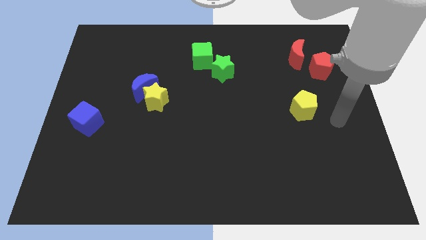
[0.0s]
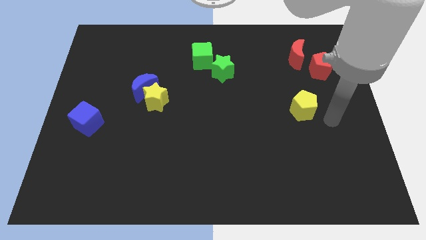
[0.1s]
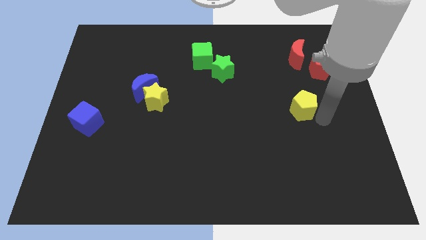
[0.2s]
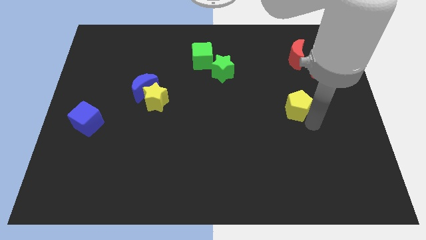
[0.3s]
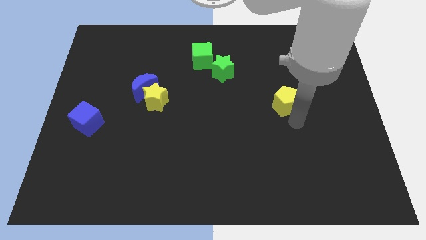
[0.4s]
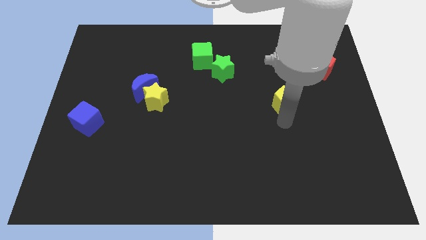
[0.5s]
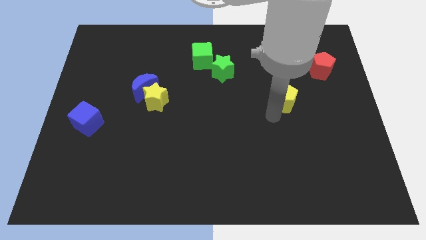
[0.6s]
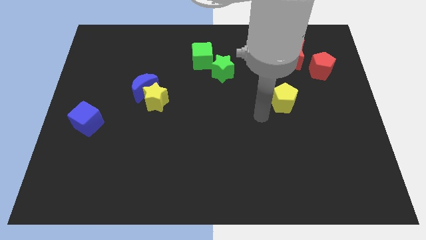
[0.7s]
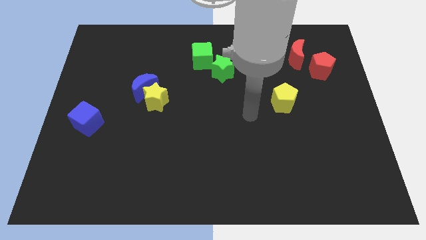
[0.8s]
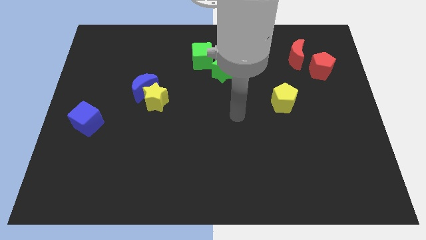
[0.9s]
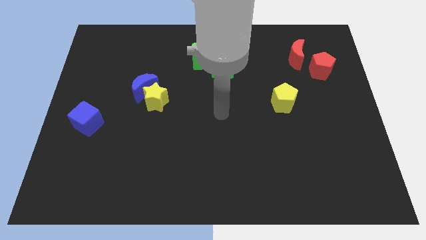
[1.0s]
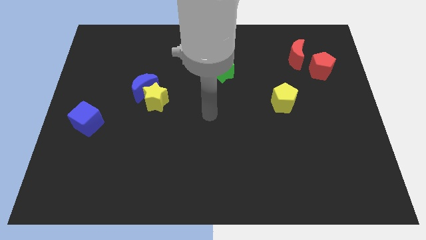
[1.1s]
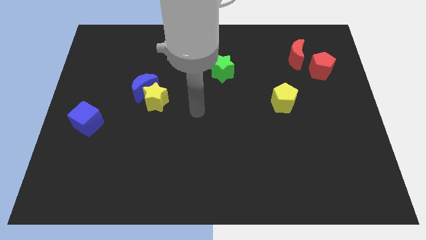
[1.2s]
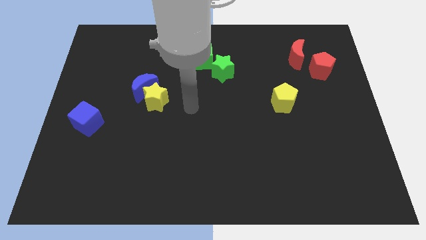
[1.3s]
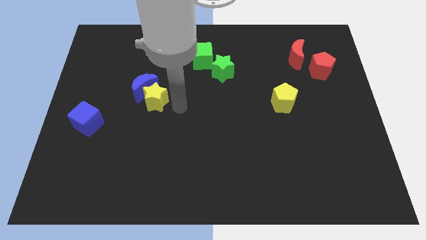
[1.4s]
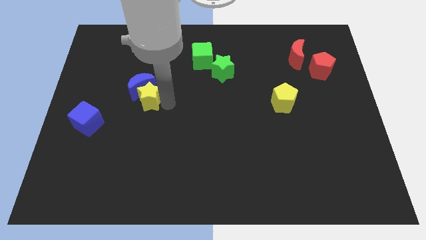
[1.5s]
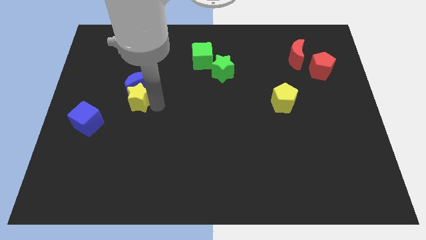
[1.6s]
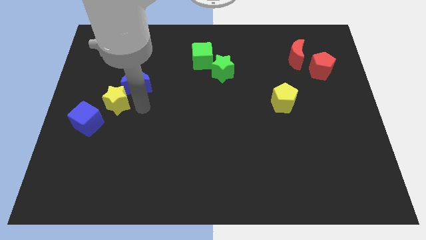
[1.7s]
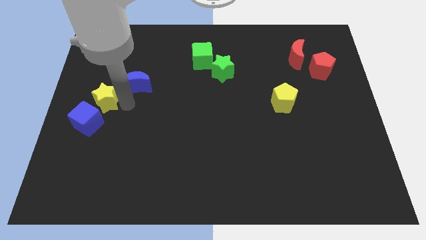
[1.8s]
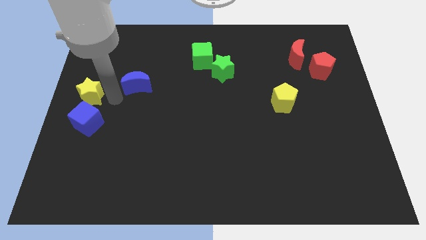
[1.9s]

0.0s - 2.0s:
move the blue moon away from the yellow star

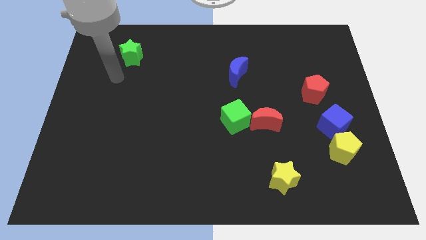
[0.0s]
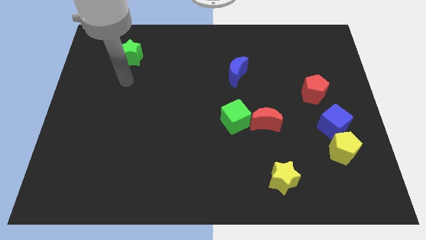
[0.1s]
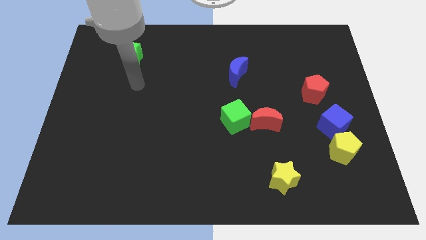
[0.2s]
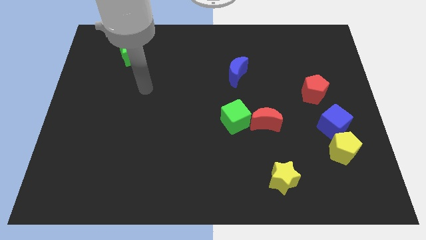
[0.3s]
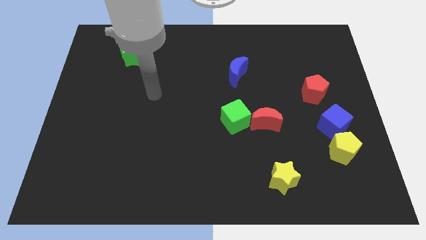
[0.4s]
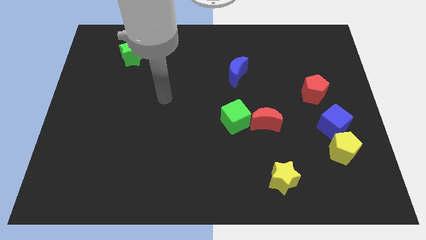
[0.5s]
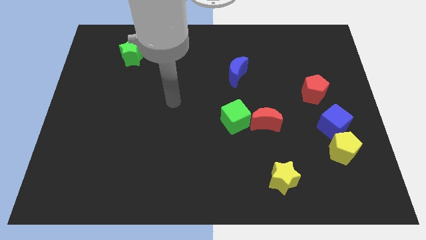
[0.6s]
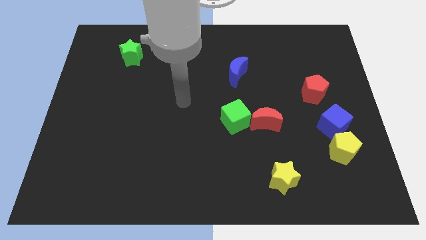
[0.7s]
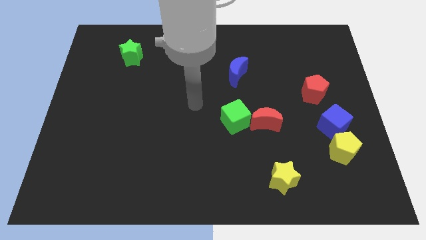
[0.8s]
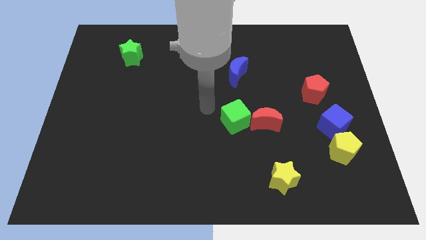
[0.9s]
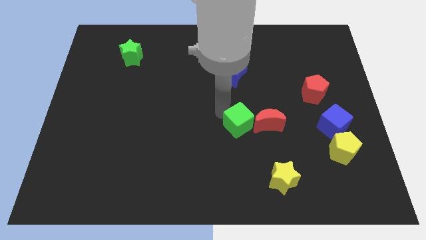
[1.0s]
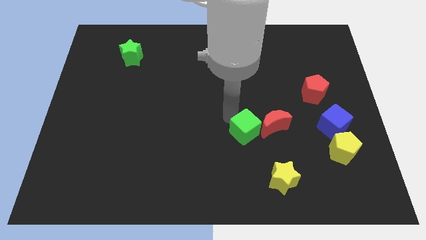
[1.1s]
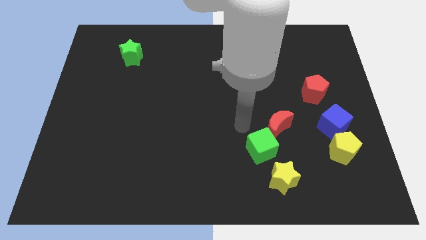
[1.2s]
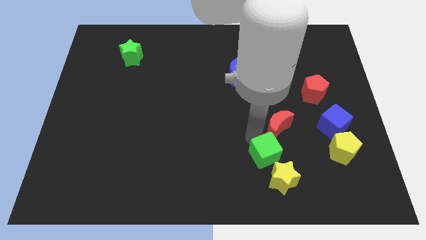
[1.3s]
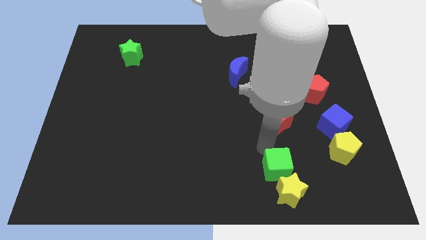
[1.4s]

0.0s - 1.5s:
pull the red moon apart from the green cube

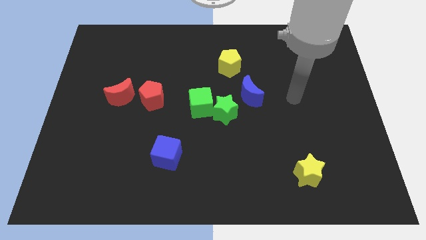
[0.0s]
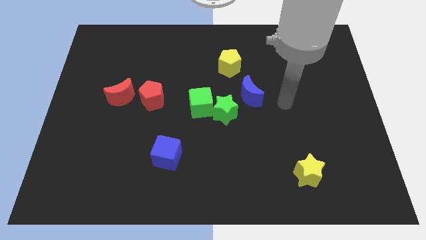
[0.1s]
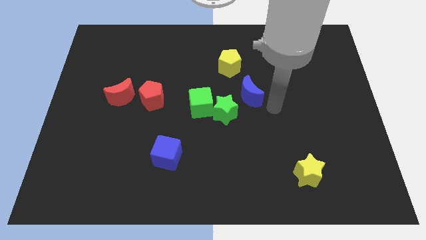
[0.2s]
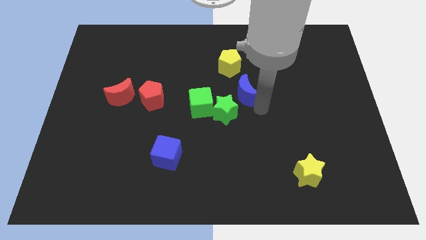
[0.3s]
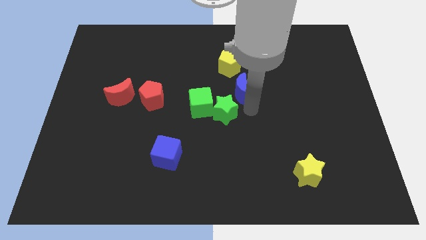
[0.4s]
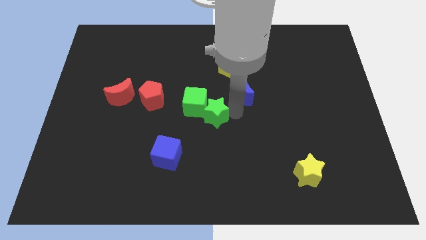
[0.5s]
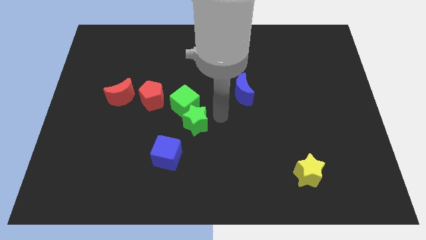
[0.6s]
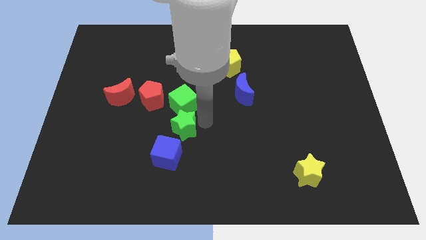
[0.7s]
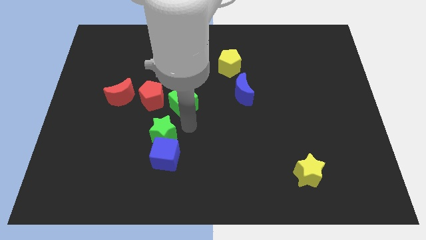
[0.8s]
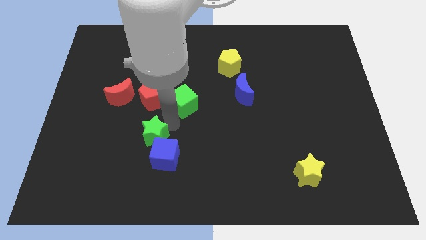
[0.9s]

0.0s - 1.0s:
separate the green cube from the green star

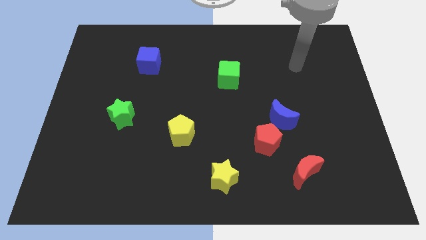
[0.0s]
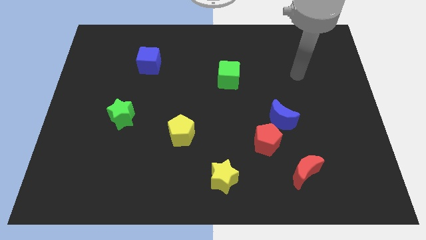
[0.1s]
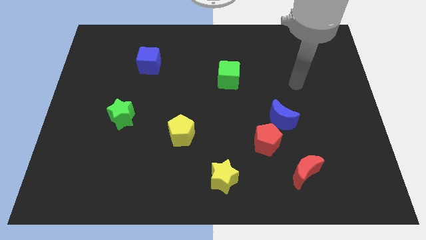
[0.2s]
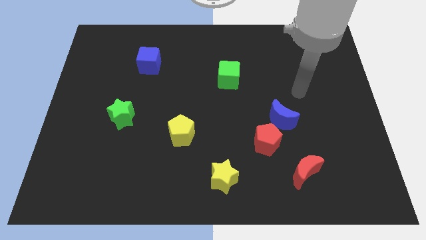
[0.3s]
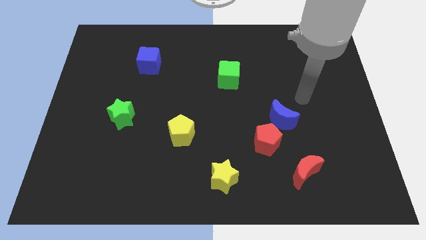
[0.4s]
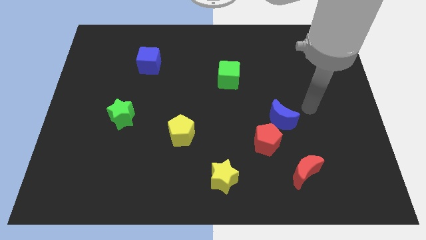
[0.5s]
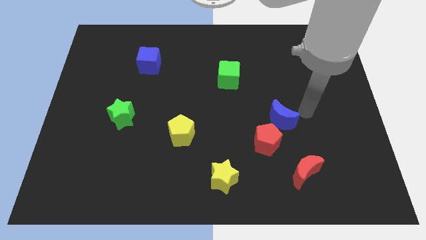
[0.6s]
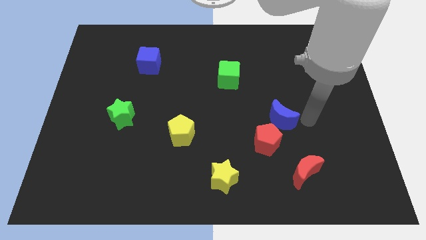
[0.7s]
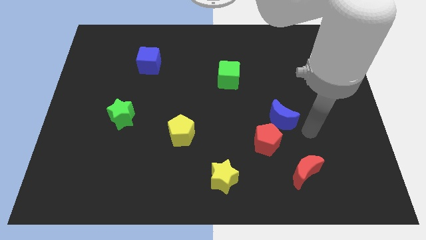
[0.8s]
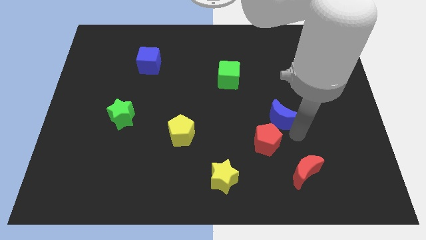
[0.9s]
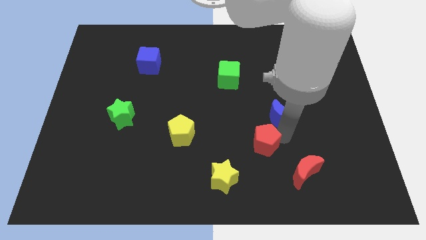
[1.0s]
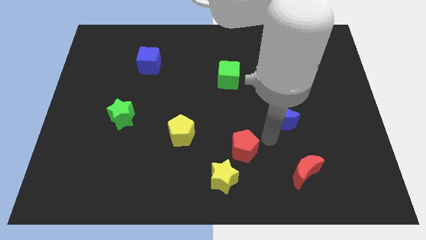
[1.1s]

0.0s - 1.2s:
separate the blue moon from the red pentagon

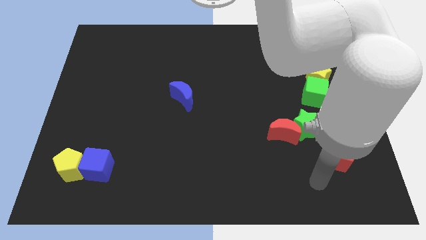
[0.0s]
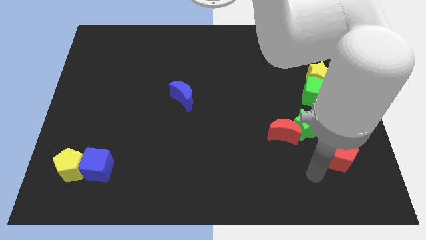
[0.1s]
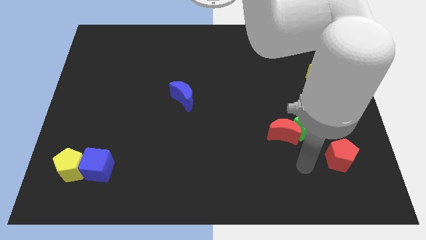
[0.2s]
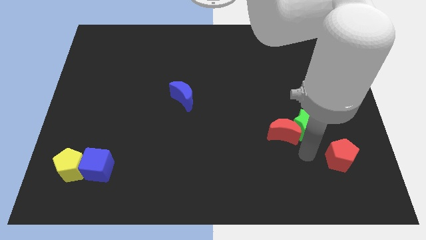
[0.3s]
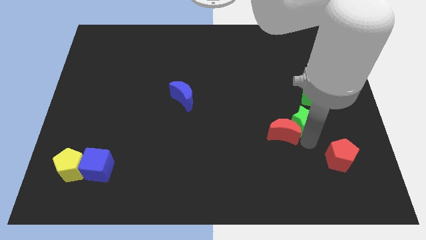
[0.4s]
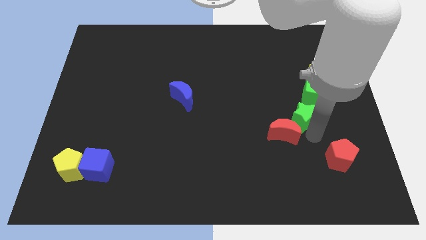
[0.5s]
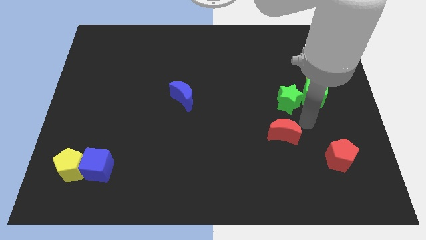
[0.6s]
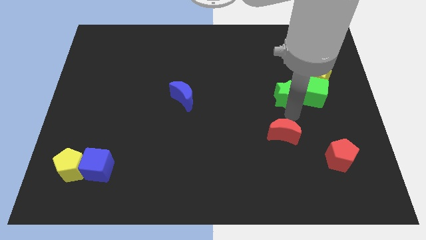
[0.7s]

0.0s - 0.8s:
separate the red moon from the green star

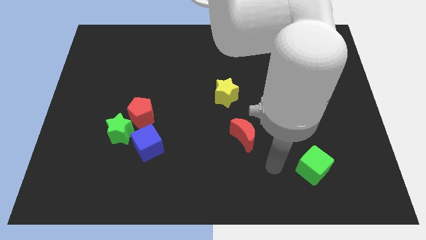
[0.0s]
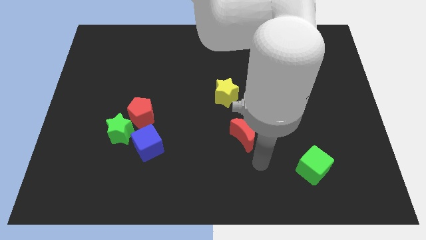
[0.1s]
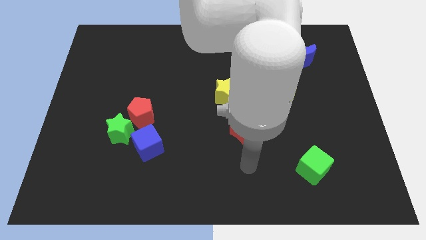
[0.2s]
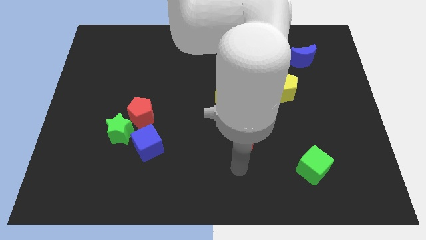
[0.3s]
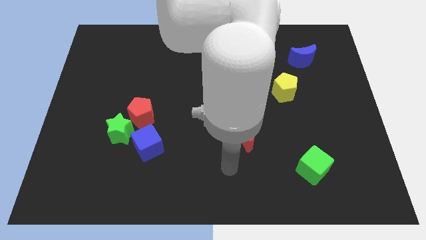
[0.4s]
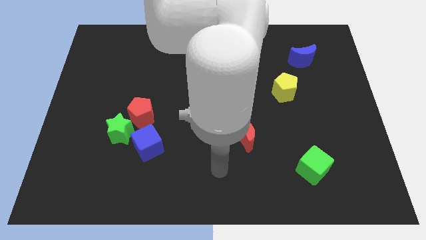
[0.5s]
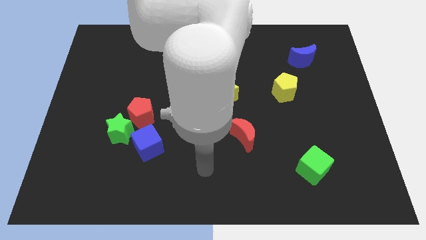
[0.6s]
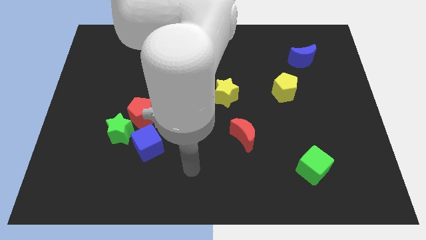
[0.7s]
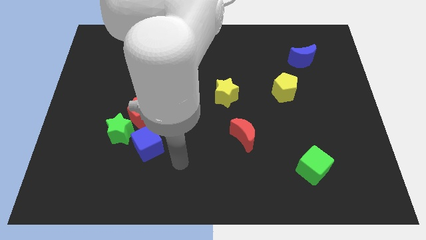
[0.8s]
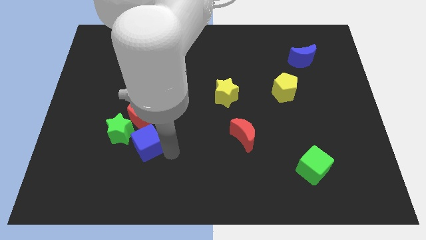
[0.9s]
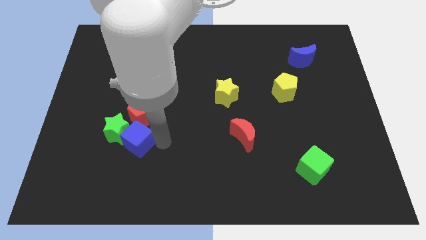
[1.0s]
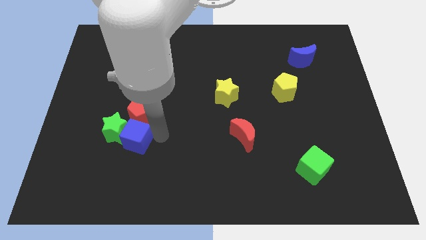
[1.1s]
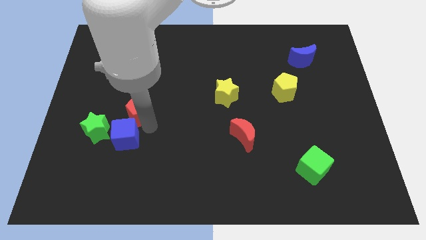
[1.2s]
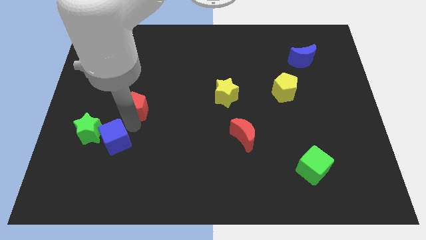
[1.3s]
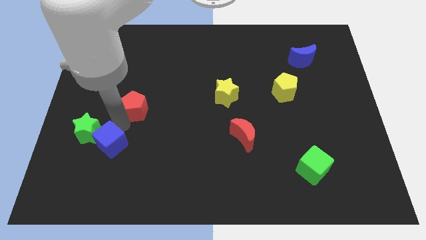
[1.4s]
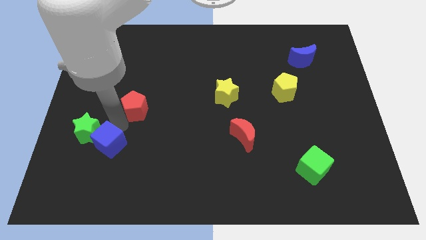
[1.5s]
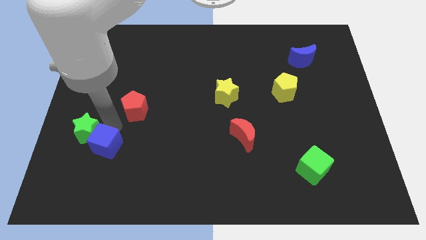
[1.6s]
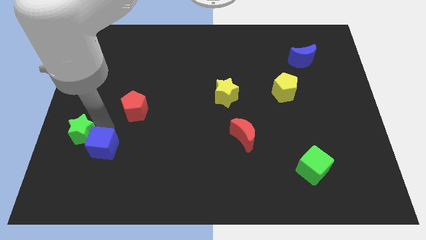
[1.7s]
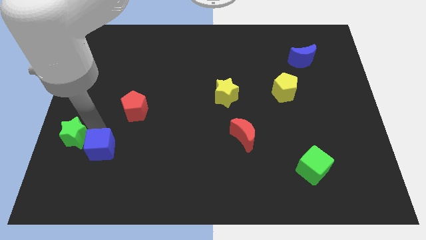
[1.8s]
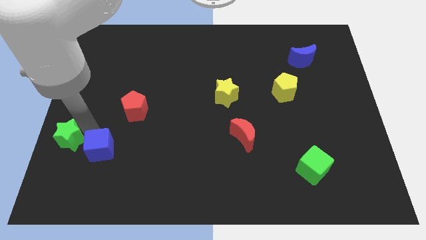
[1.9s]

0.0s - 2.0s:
separate the green star from the red pentagon and blue cube

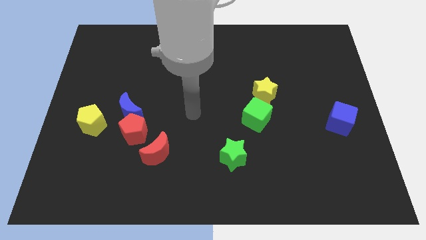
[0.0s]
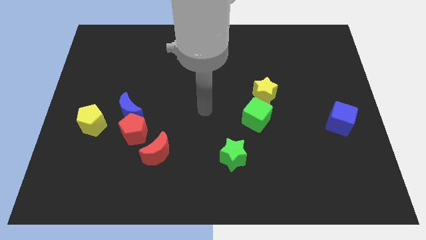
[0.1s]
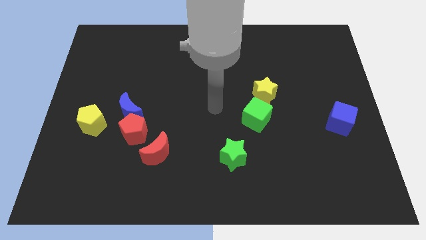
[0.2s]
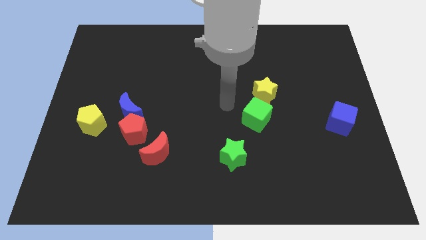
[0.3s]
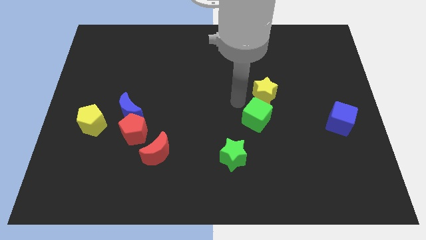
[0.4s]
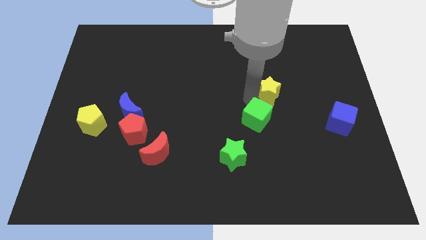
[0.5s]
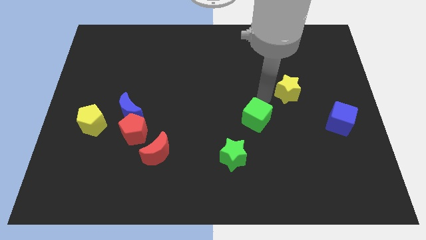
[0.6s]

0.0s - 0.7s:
separate the green cube from the yellow star

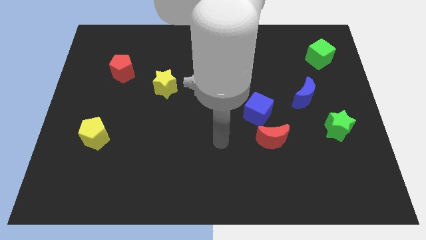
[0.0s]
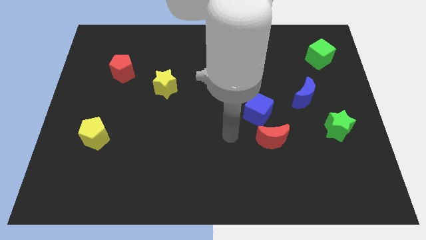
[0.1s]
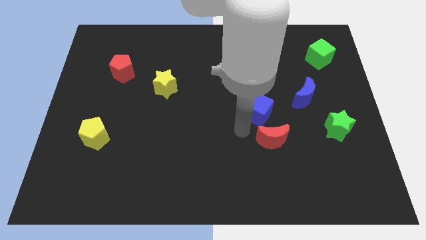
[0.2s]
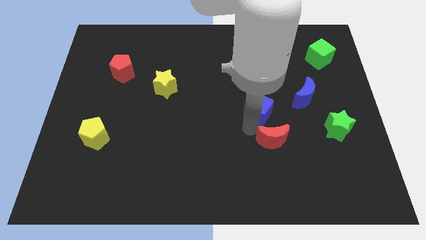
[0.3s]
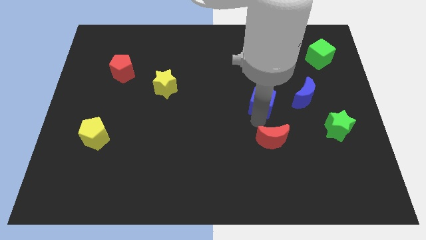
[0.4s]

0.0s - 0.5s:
separate the red moon from the blue cube
